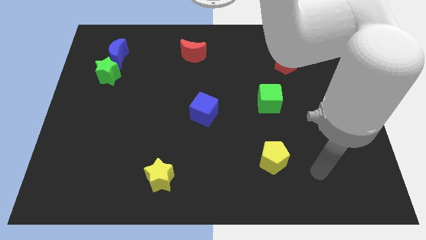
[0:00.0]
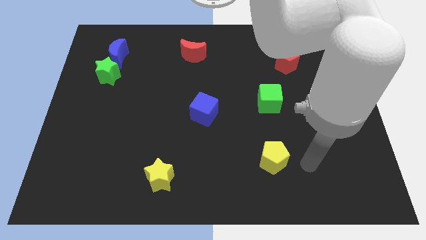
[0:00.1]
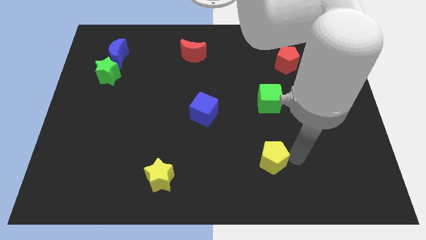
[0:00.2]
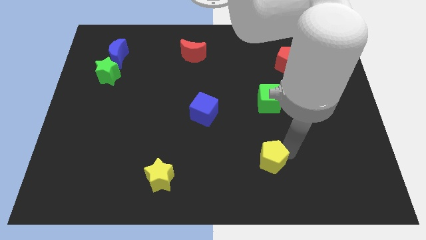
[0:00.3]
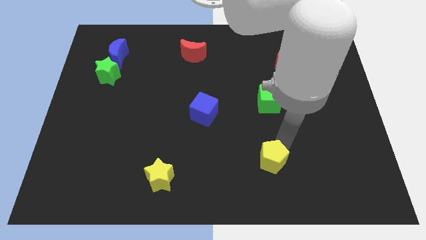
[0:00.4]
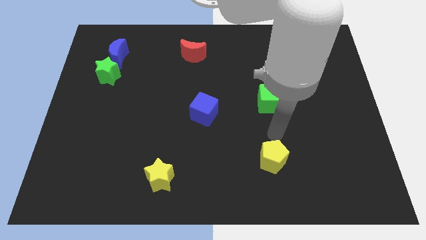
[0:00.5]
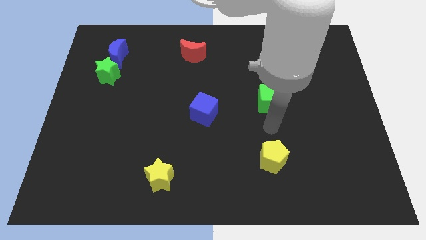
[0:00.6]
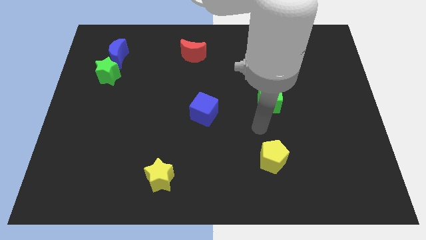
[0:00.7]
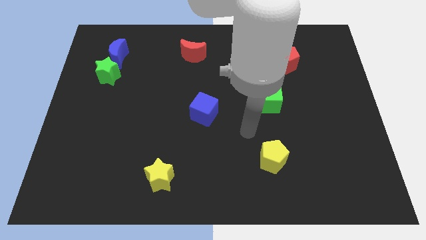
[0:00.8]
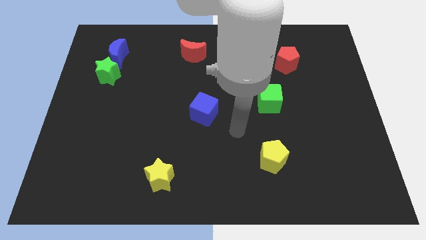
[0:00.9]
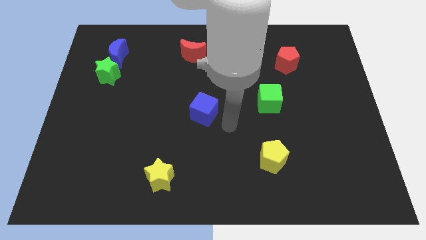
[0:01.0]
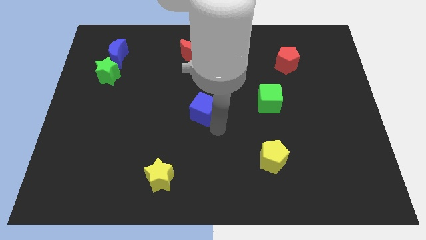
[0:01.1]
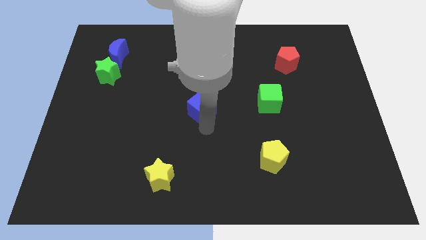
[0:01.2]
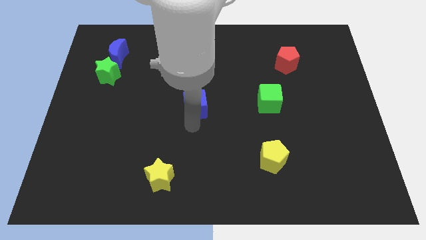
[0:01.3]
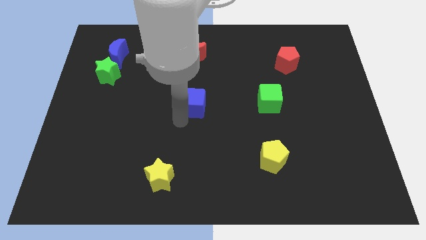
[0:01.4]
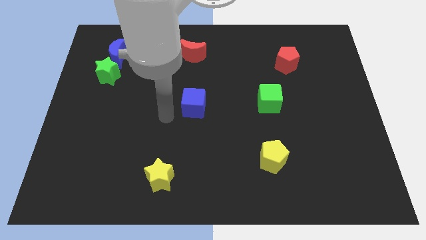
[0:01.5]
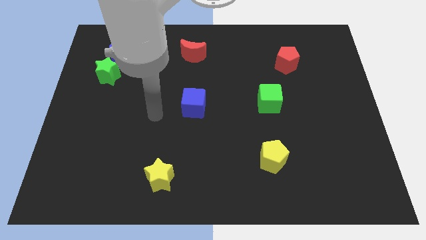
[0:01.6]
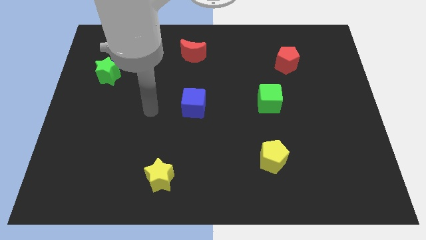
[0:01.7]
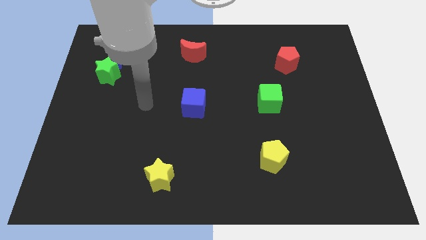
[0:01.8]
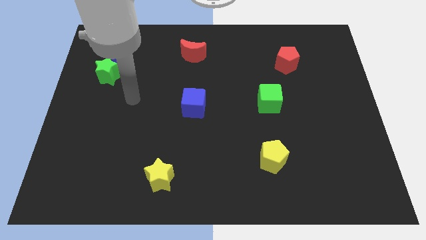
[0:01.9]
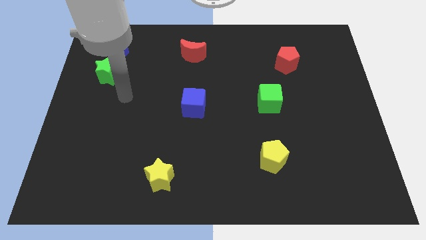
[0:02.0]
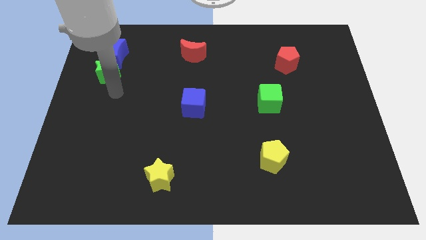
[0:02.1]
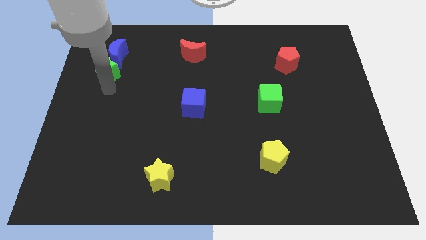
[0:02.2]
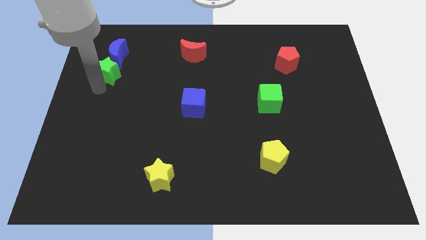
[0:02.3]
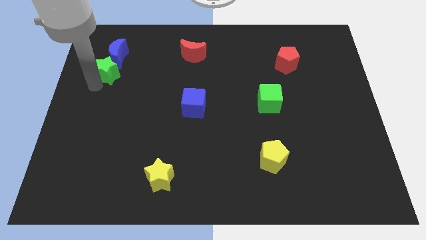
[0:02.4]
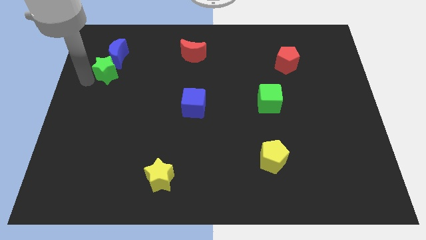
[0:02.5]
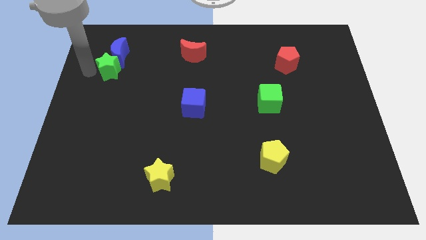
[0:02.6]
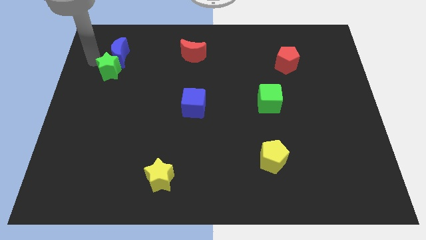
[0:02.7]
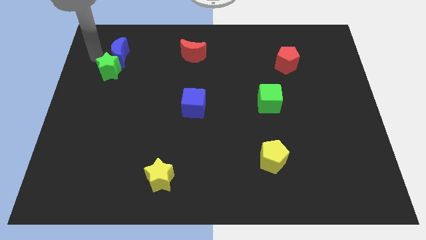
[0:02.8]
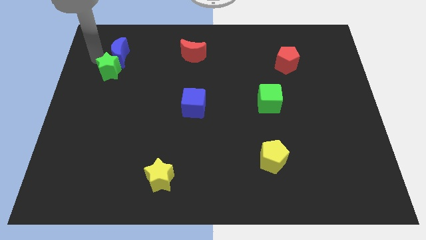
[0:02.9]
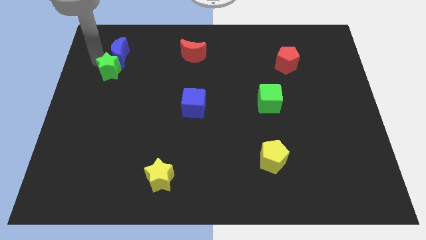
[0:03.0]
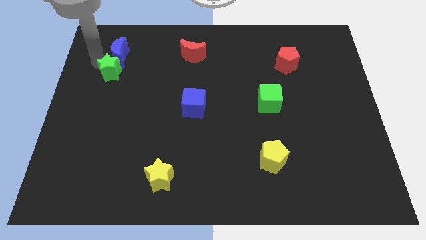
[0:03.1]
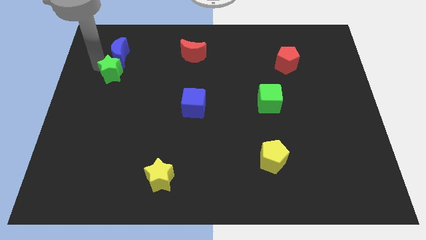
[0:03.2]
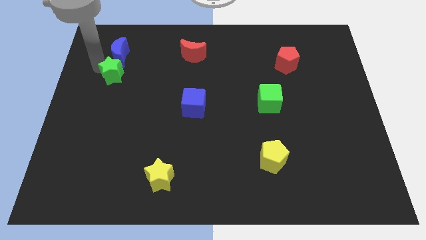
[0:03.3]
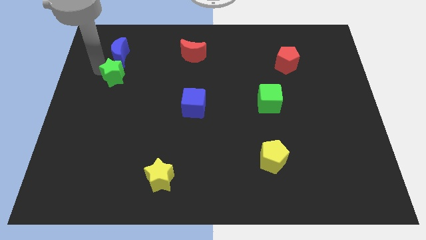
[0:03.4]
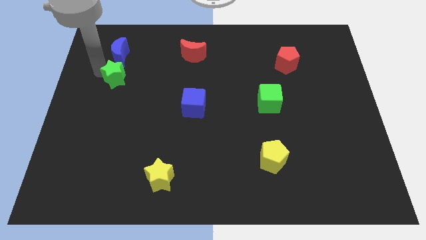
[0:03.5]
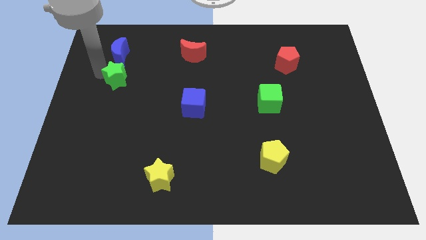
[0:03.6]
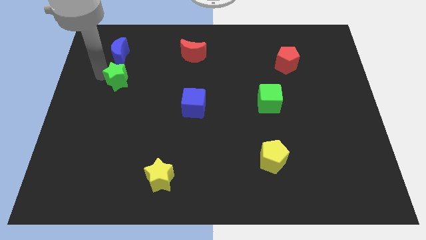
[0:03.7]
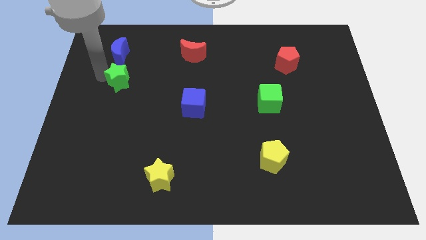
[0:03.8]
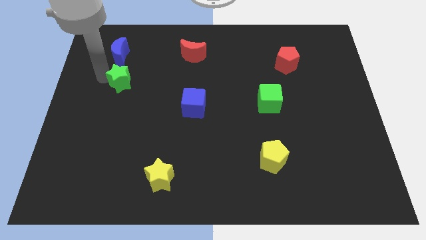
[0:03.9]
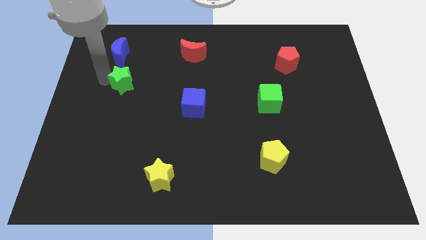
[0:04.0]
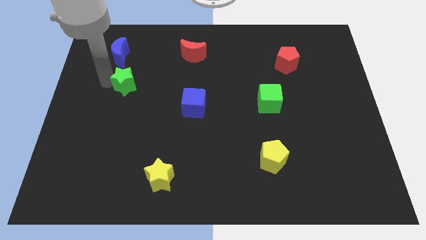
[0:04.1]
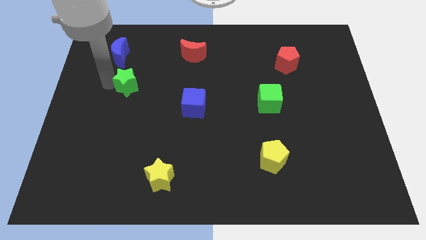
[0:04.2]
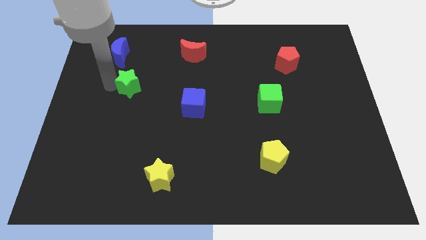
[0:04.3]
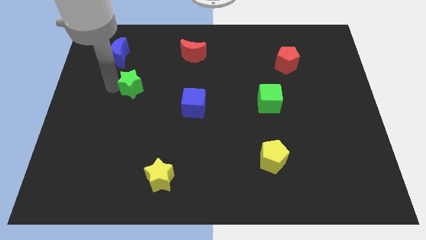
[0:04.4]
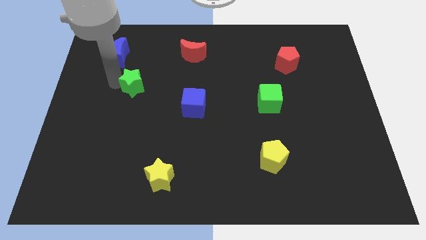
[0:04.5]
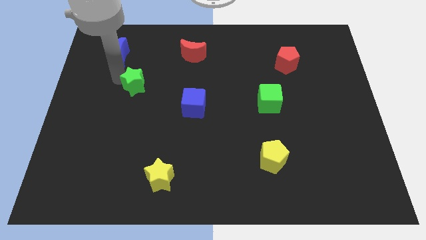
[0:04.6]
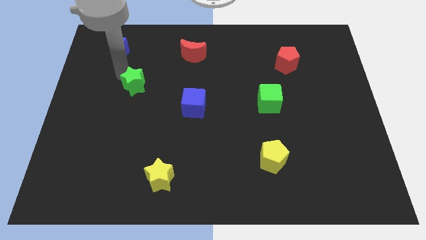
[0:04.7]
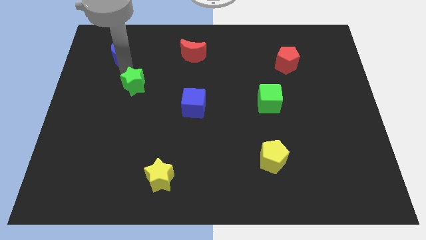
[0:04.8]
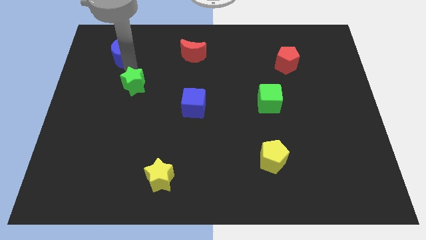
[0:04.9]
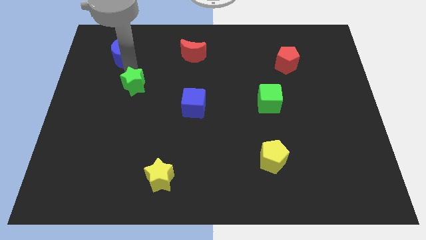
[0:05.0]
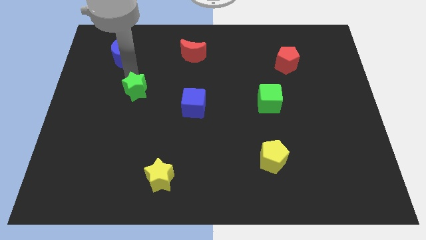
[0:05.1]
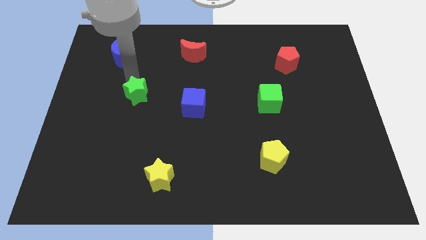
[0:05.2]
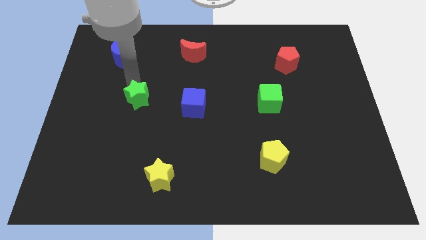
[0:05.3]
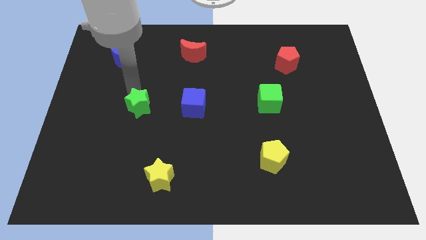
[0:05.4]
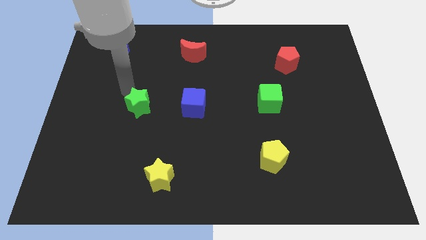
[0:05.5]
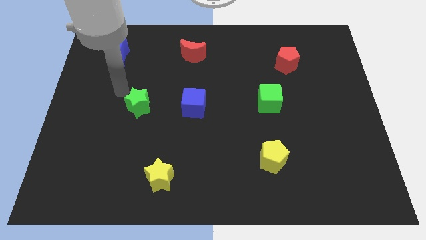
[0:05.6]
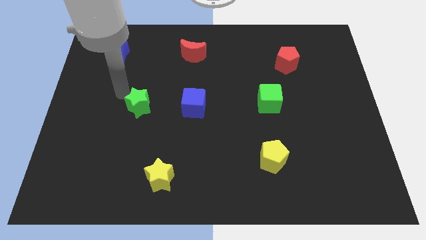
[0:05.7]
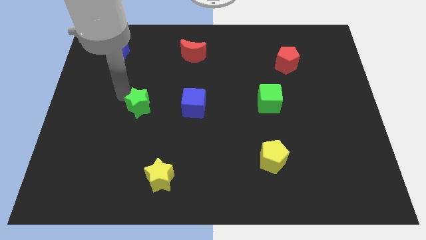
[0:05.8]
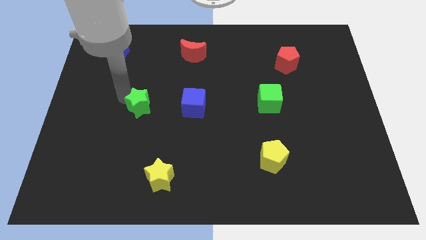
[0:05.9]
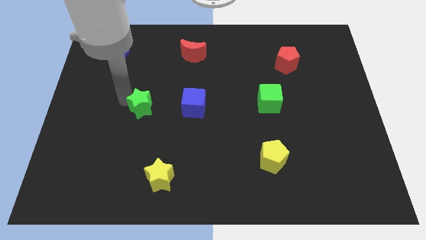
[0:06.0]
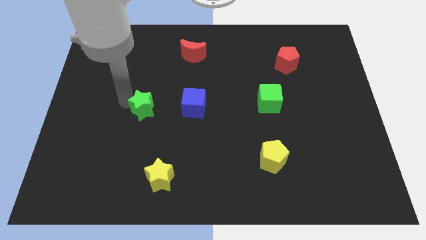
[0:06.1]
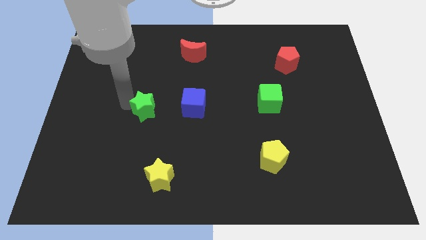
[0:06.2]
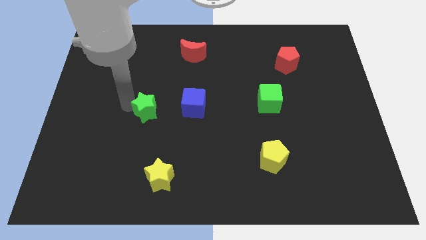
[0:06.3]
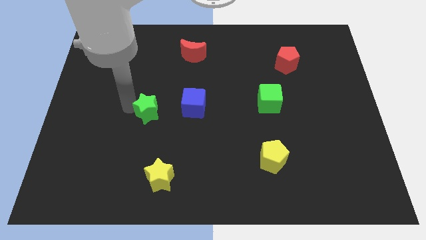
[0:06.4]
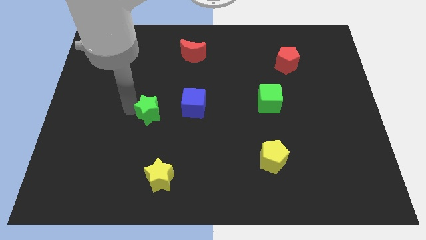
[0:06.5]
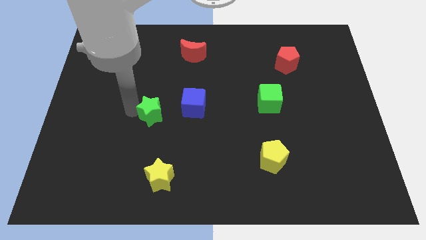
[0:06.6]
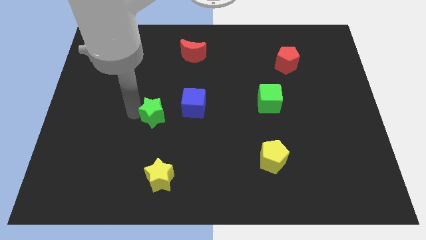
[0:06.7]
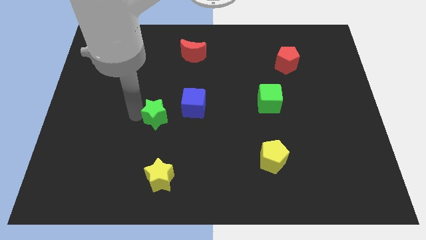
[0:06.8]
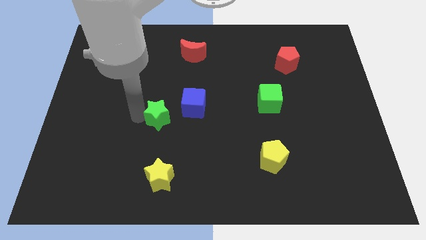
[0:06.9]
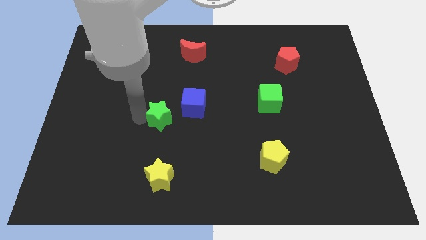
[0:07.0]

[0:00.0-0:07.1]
move the green star downwards and to the right

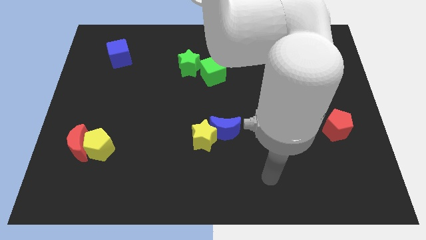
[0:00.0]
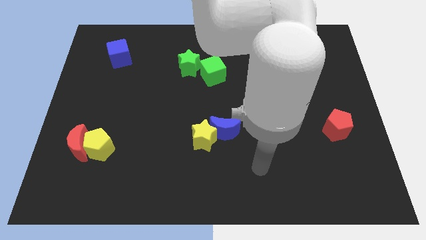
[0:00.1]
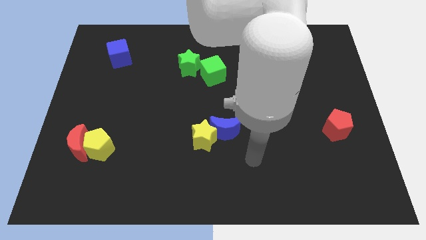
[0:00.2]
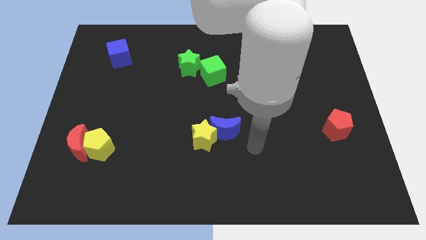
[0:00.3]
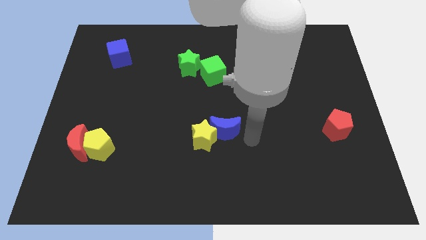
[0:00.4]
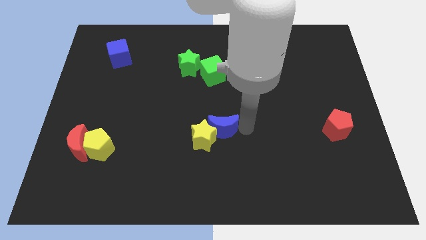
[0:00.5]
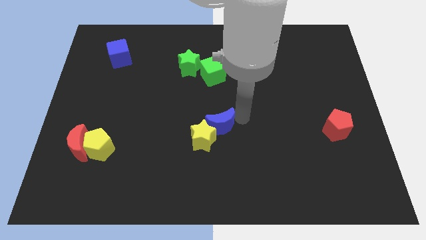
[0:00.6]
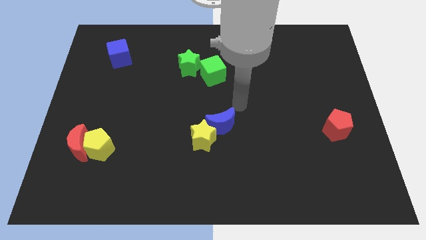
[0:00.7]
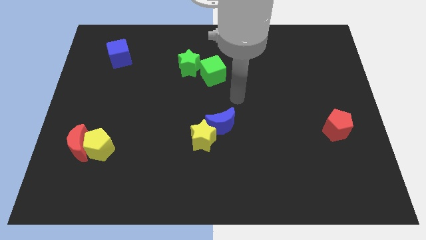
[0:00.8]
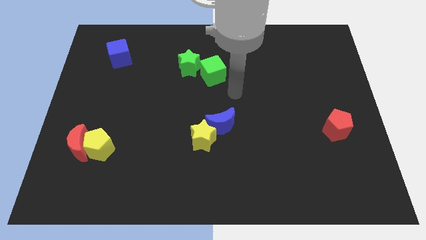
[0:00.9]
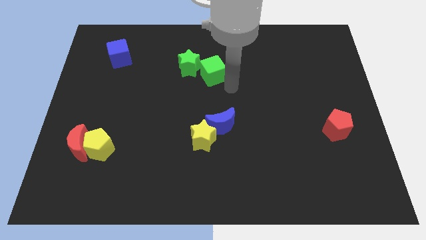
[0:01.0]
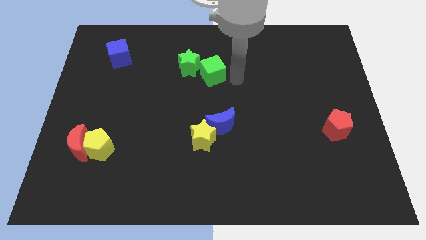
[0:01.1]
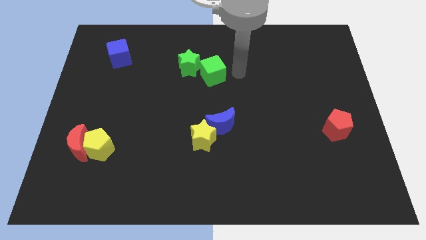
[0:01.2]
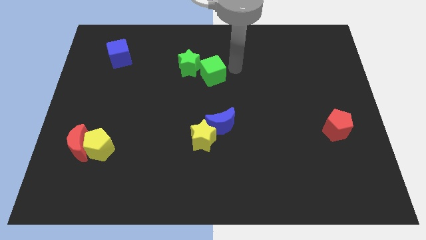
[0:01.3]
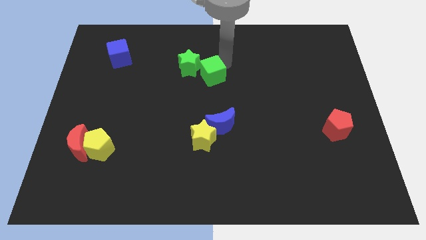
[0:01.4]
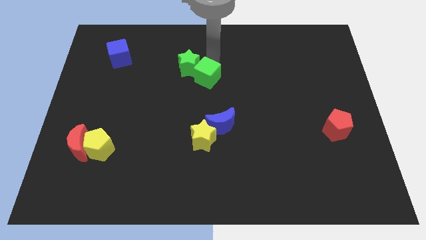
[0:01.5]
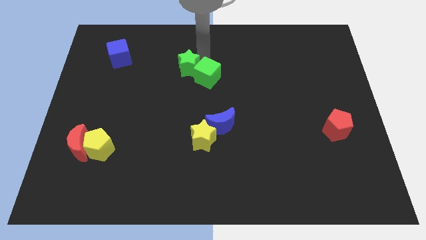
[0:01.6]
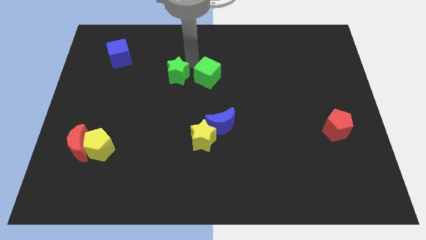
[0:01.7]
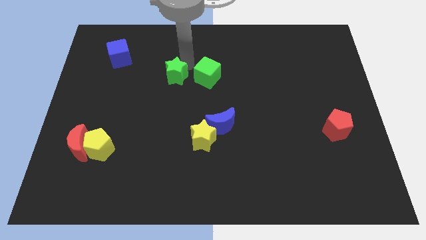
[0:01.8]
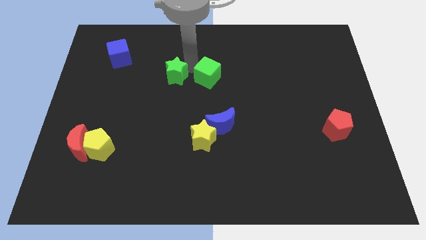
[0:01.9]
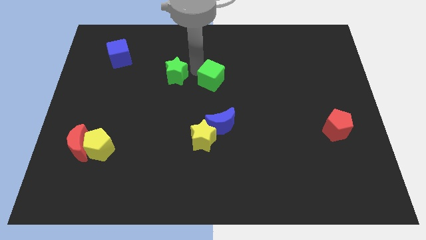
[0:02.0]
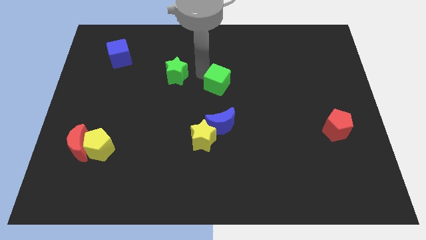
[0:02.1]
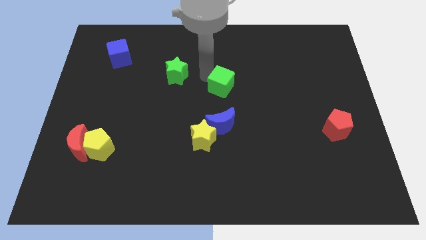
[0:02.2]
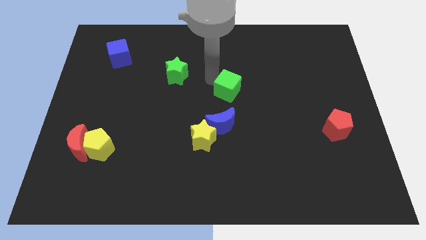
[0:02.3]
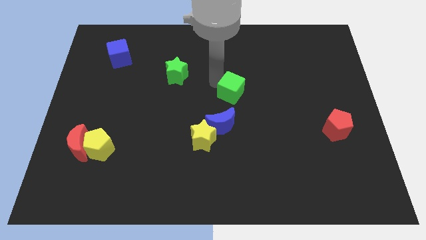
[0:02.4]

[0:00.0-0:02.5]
slightly slide the green cube diagonally down and right
